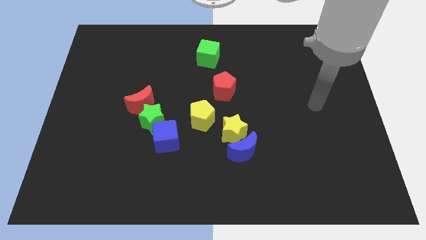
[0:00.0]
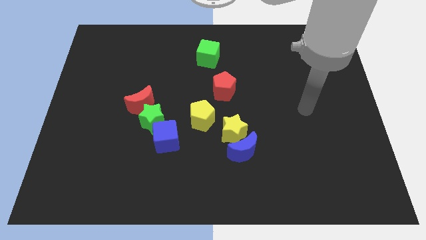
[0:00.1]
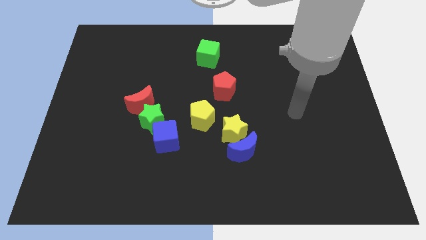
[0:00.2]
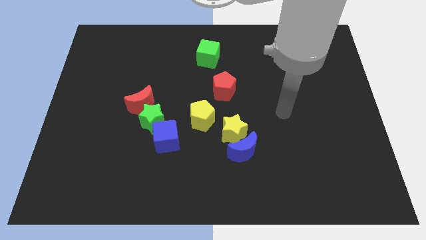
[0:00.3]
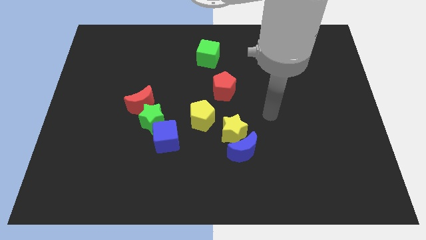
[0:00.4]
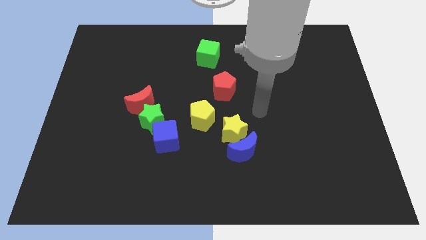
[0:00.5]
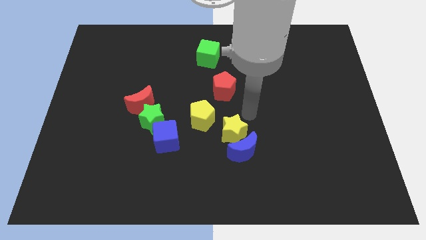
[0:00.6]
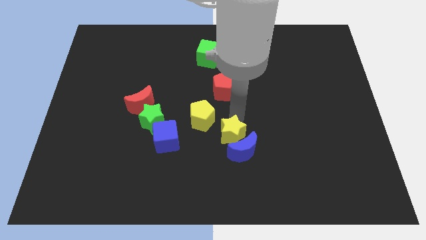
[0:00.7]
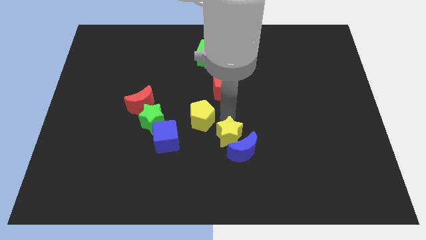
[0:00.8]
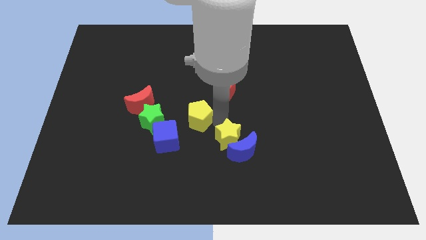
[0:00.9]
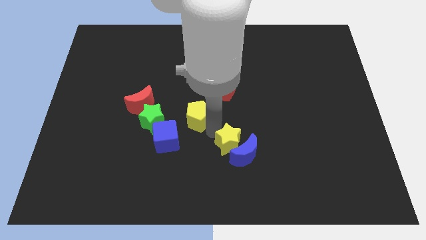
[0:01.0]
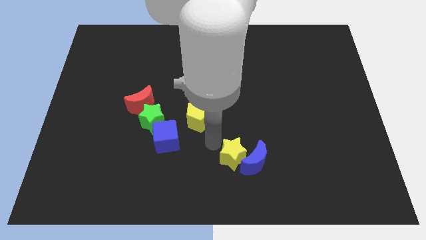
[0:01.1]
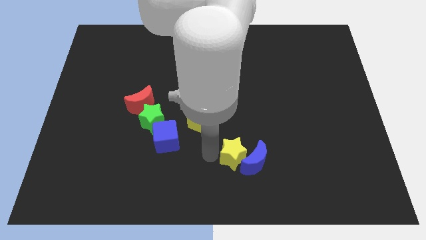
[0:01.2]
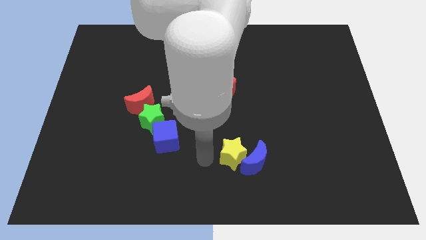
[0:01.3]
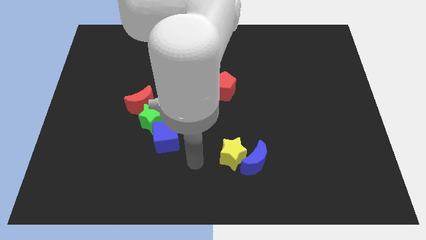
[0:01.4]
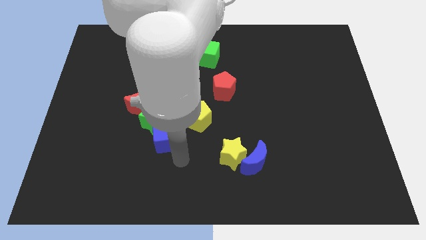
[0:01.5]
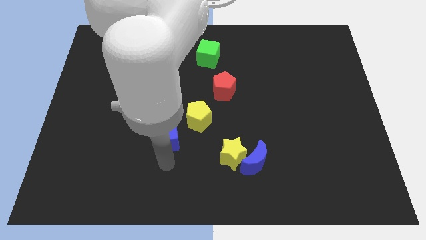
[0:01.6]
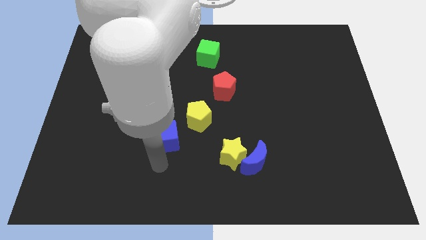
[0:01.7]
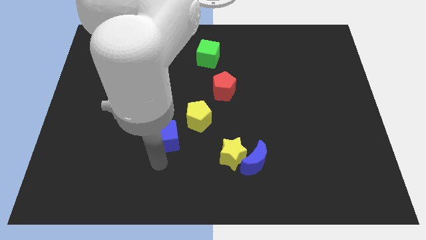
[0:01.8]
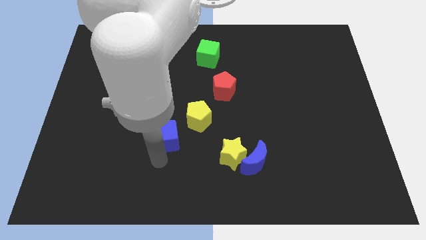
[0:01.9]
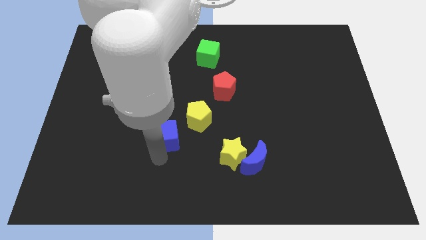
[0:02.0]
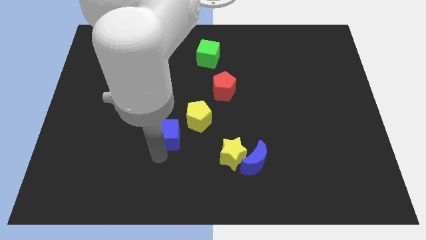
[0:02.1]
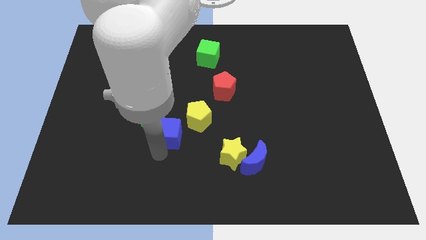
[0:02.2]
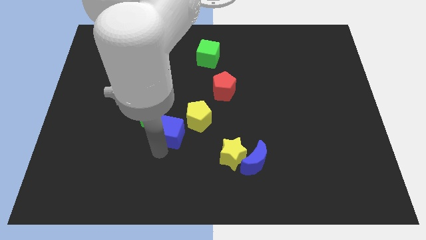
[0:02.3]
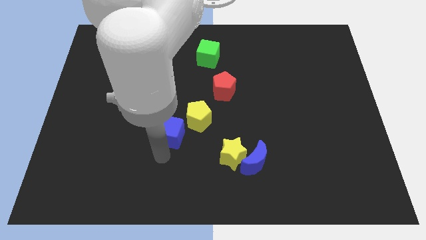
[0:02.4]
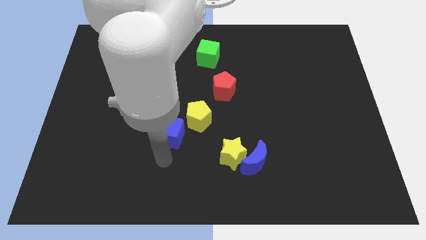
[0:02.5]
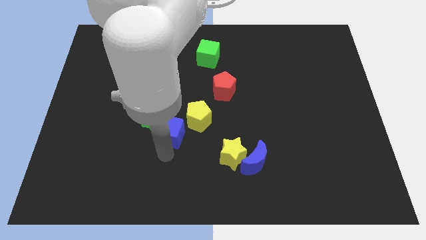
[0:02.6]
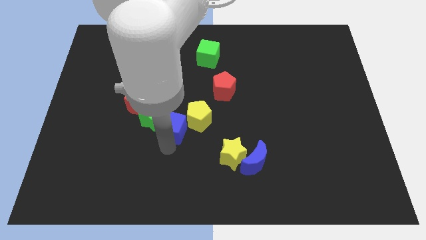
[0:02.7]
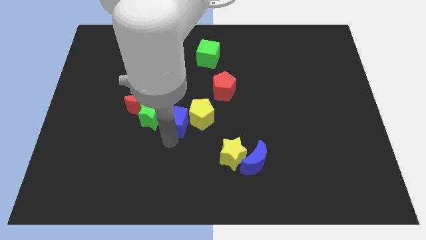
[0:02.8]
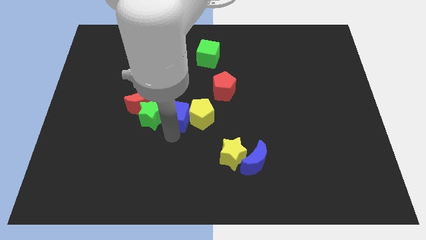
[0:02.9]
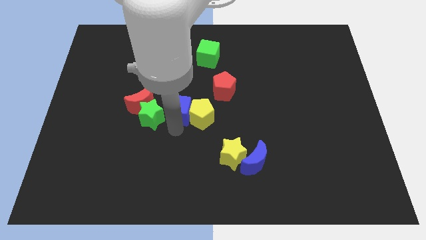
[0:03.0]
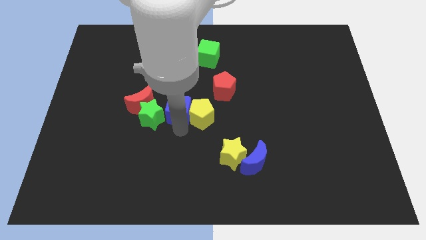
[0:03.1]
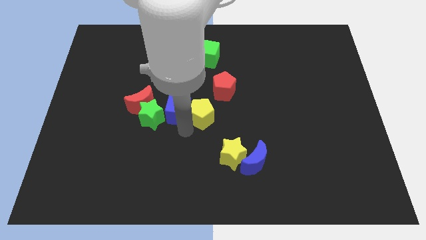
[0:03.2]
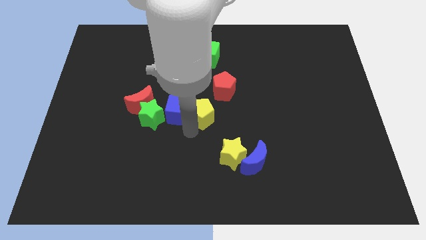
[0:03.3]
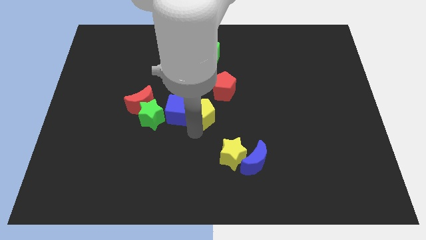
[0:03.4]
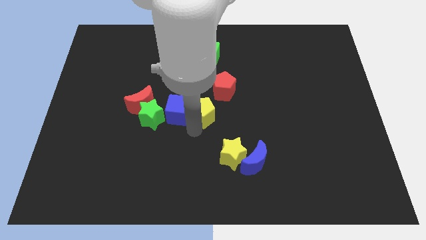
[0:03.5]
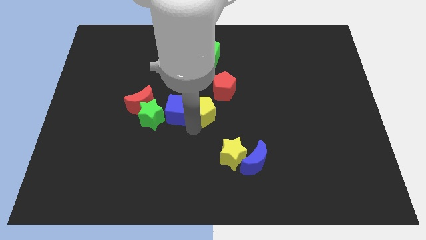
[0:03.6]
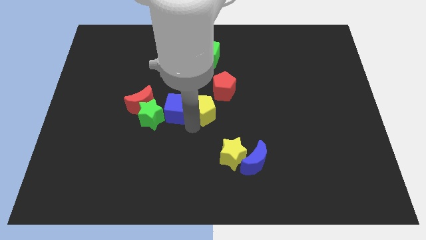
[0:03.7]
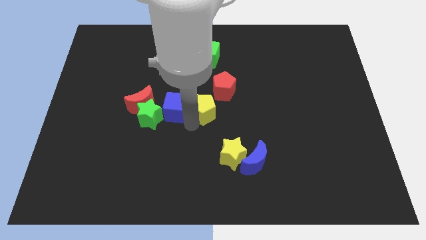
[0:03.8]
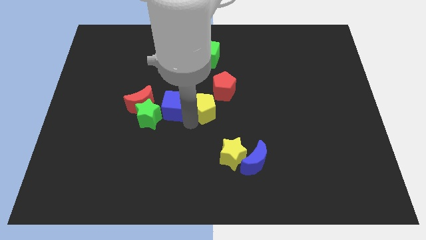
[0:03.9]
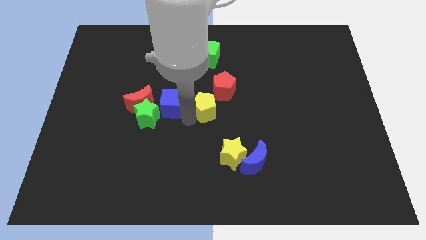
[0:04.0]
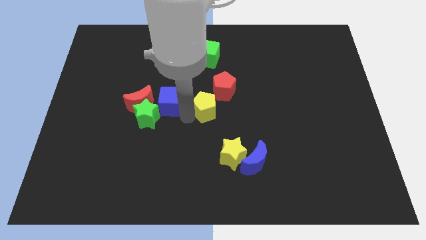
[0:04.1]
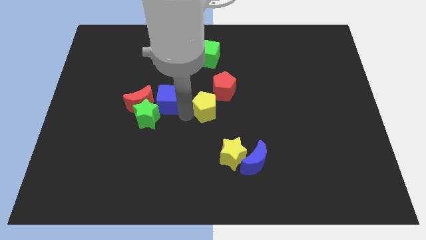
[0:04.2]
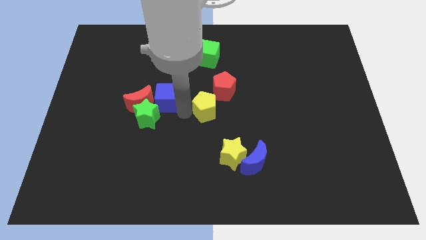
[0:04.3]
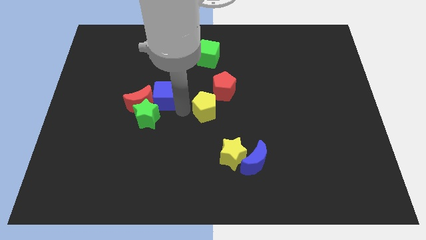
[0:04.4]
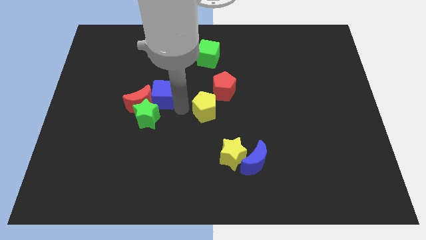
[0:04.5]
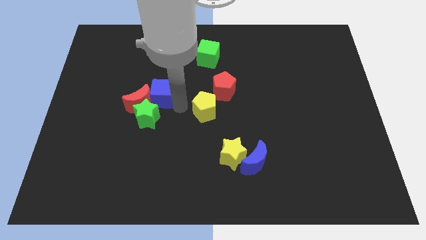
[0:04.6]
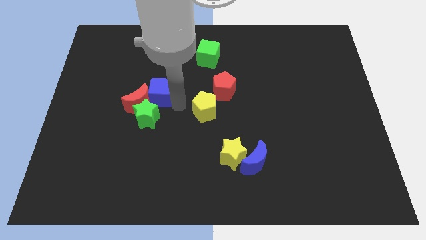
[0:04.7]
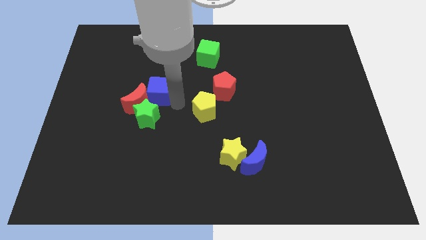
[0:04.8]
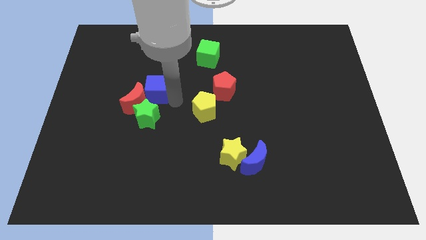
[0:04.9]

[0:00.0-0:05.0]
move the blue cube to the top side of the red moon

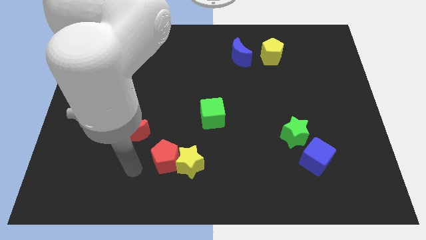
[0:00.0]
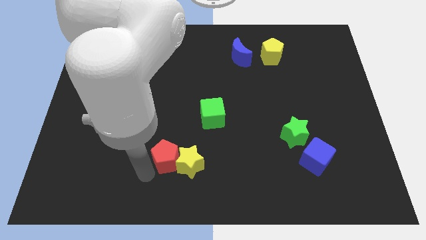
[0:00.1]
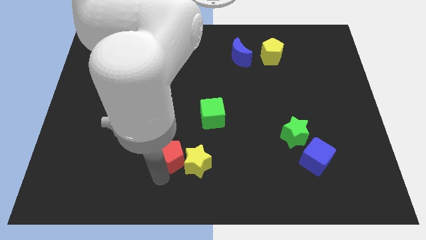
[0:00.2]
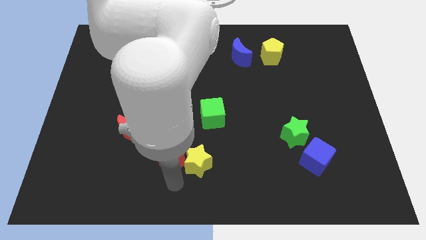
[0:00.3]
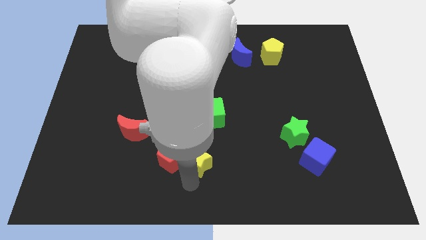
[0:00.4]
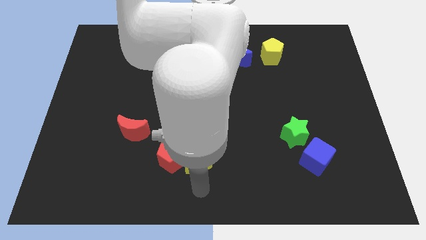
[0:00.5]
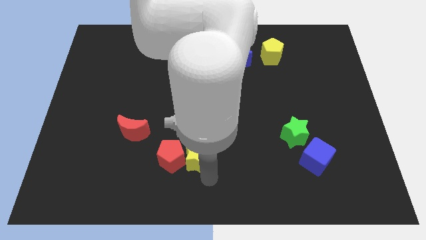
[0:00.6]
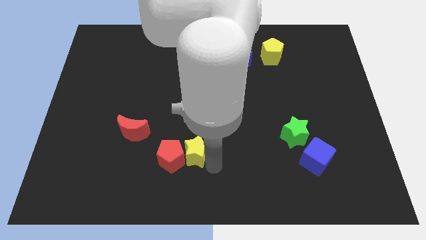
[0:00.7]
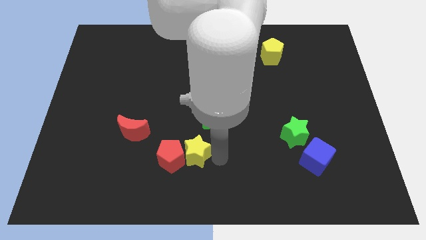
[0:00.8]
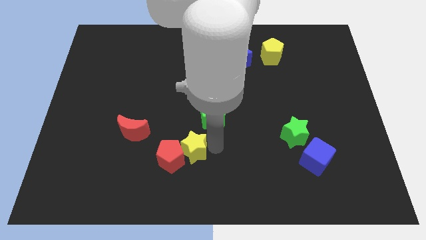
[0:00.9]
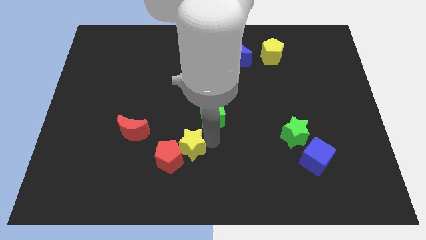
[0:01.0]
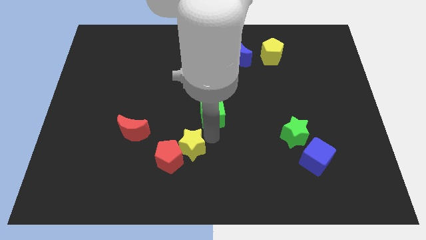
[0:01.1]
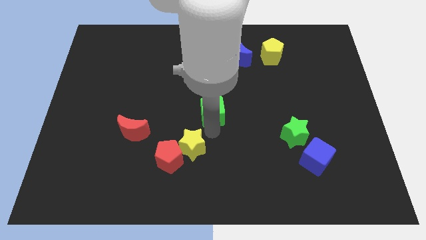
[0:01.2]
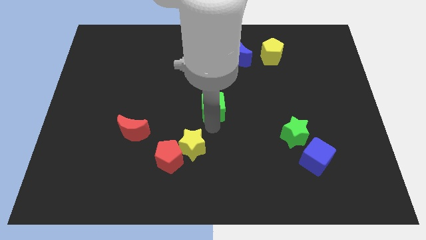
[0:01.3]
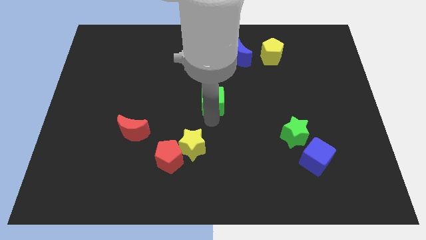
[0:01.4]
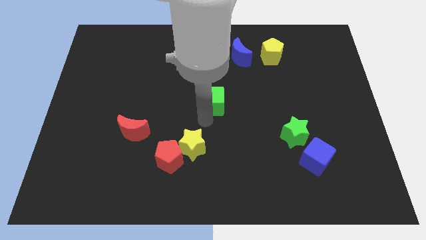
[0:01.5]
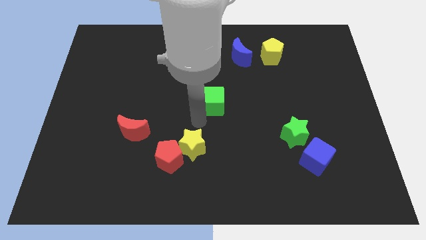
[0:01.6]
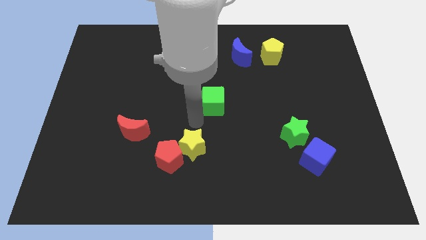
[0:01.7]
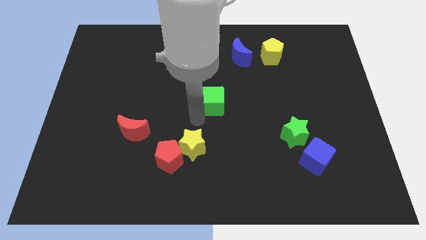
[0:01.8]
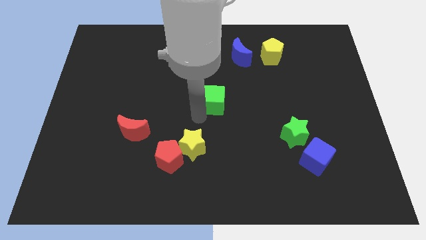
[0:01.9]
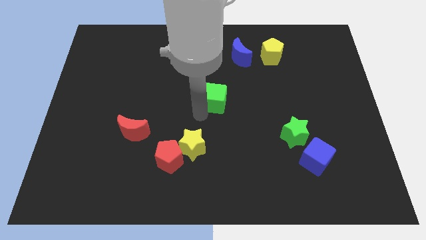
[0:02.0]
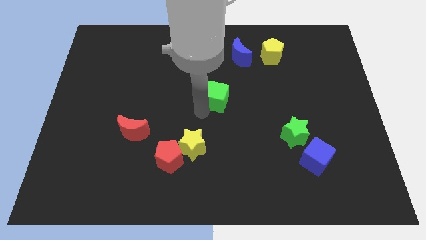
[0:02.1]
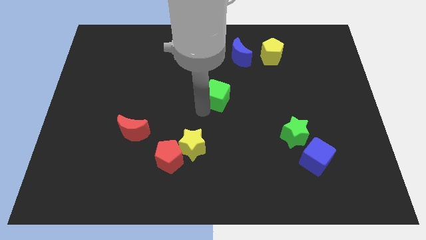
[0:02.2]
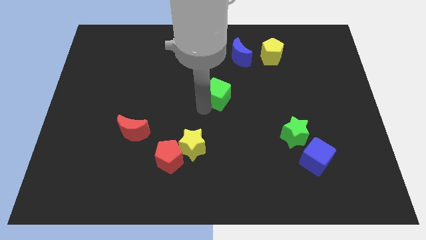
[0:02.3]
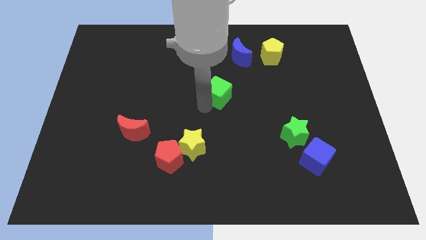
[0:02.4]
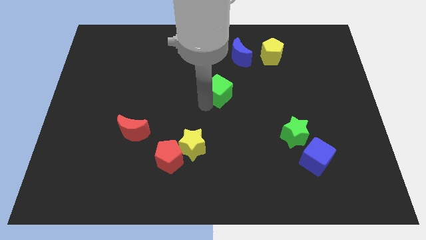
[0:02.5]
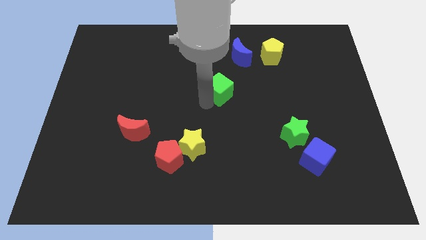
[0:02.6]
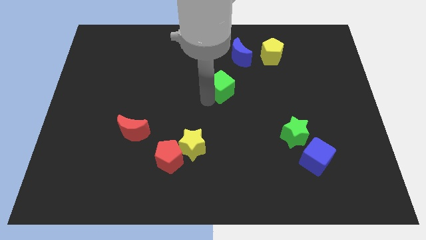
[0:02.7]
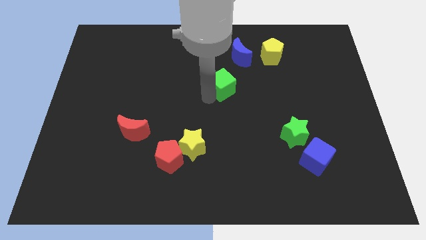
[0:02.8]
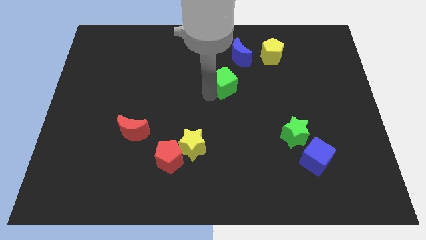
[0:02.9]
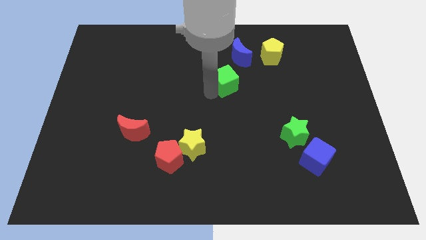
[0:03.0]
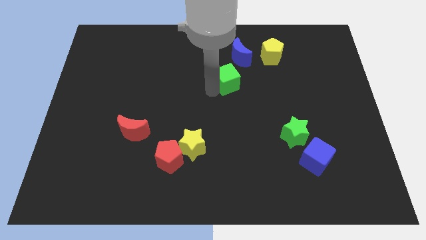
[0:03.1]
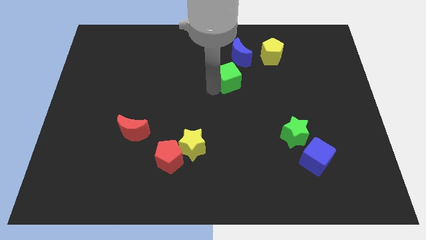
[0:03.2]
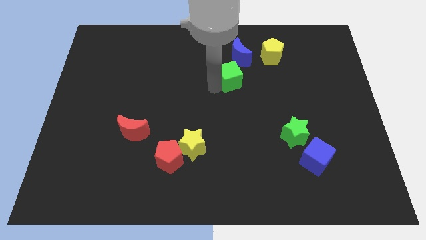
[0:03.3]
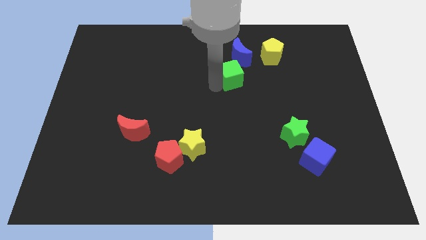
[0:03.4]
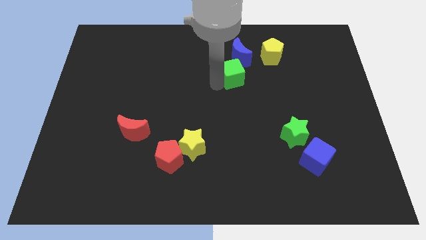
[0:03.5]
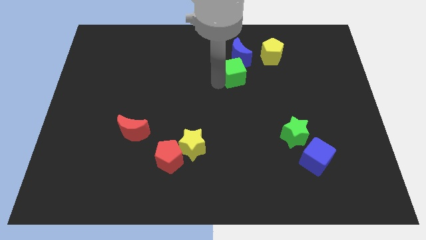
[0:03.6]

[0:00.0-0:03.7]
move the green cube to the bottom left side of the yellow pentagon
